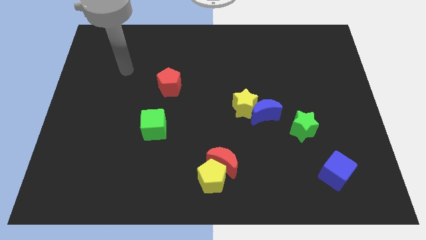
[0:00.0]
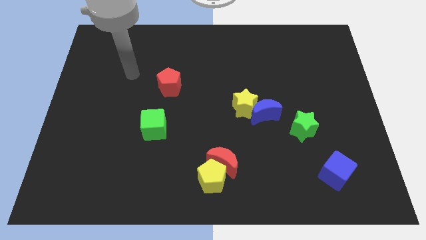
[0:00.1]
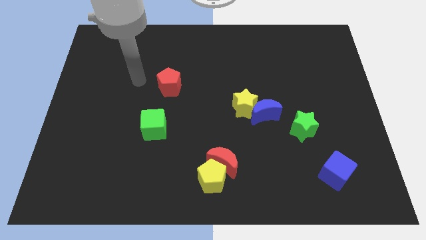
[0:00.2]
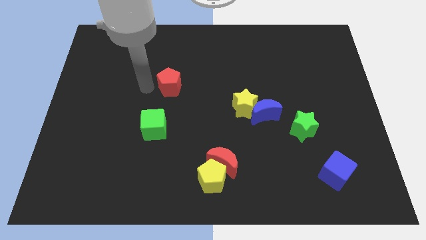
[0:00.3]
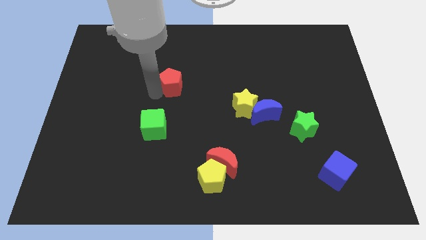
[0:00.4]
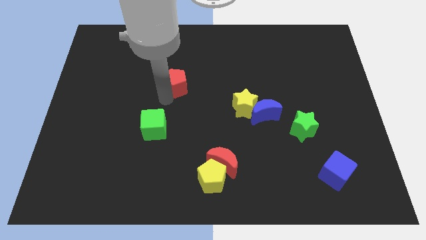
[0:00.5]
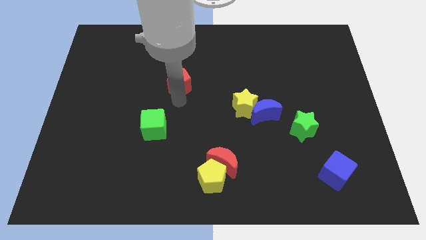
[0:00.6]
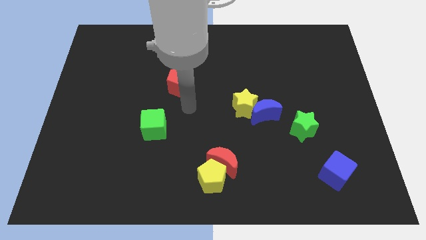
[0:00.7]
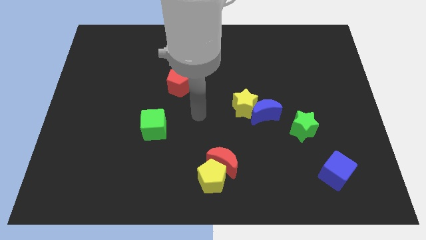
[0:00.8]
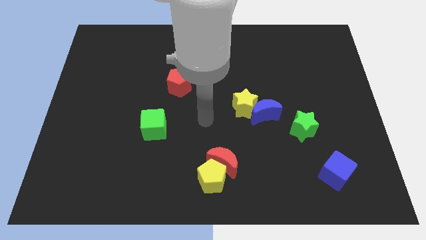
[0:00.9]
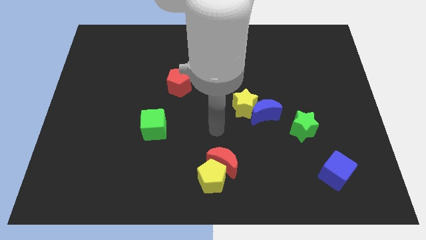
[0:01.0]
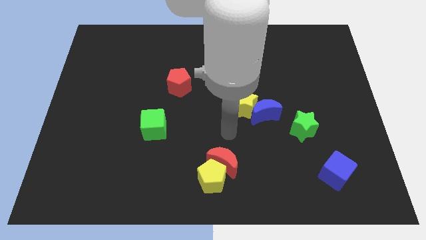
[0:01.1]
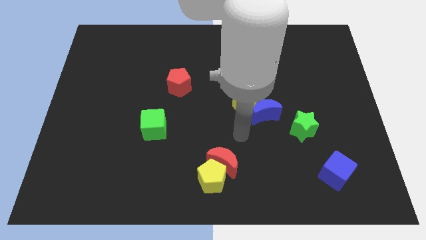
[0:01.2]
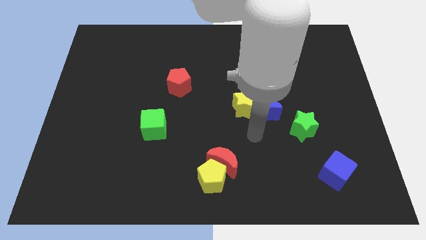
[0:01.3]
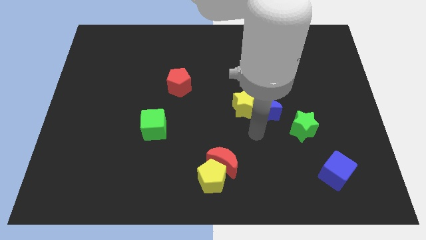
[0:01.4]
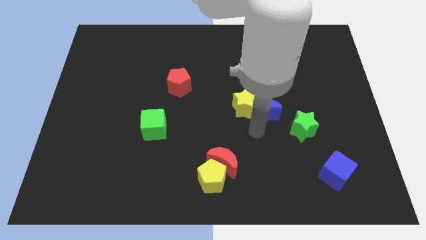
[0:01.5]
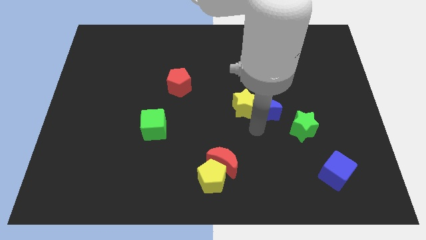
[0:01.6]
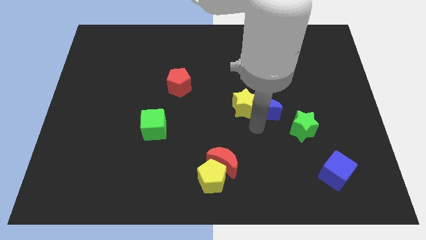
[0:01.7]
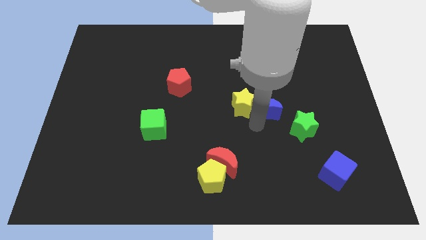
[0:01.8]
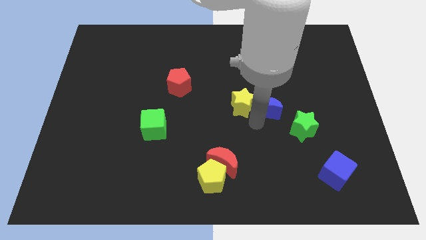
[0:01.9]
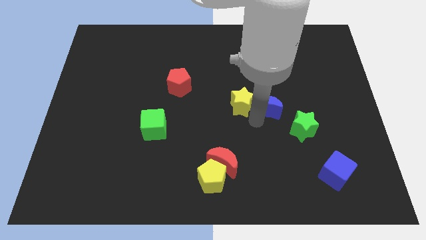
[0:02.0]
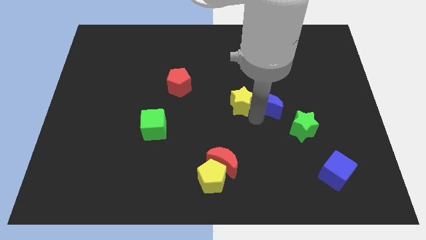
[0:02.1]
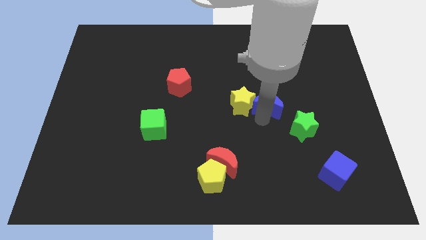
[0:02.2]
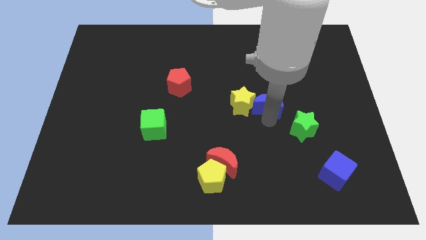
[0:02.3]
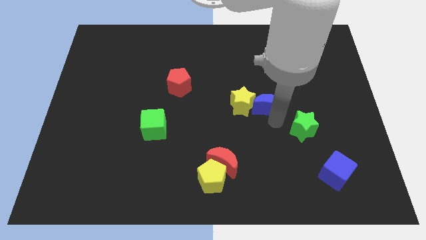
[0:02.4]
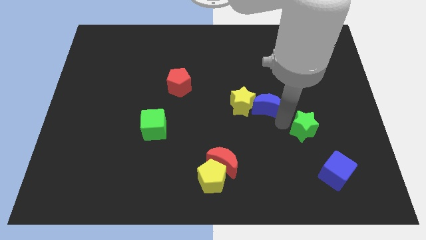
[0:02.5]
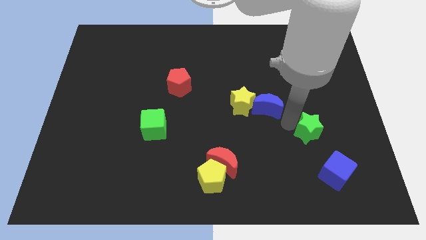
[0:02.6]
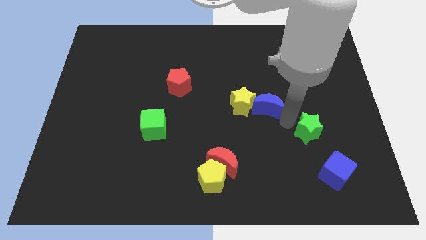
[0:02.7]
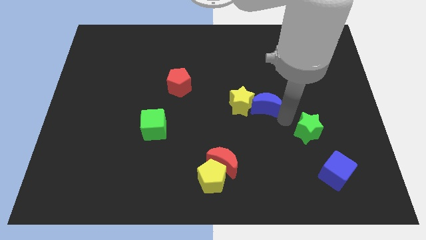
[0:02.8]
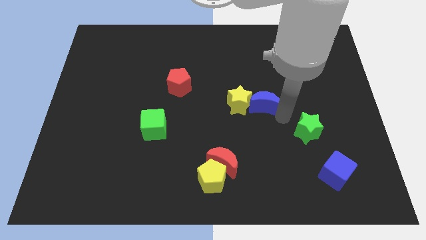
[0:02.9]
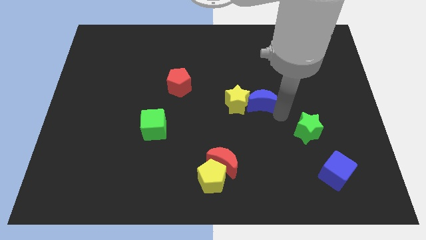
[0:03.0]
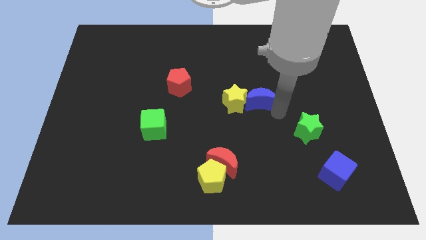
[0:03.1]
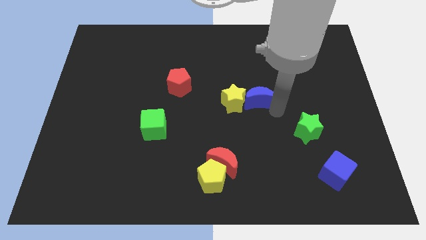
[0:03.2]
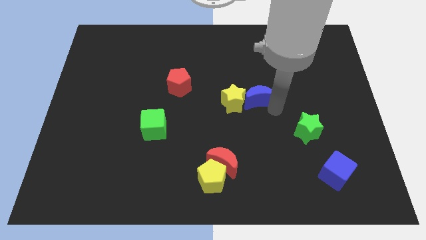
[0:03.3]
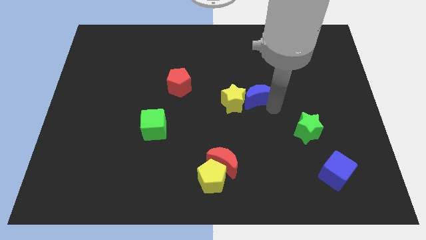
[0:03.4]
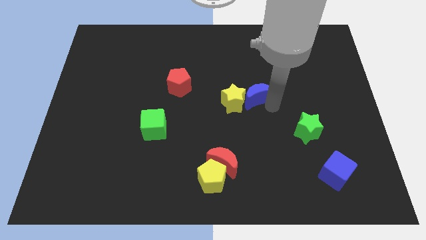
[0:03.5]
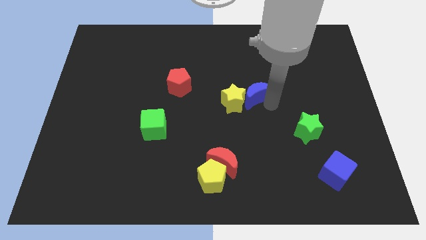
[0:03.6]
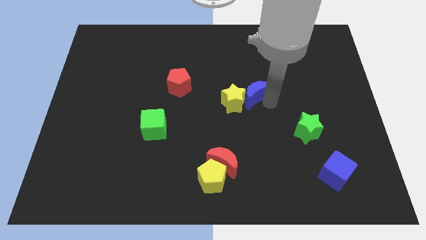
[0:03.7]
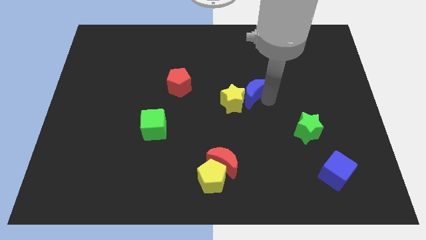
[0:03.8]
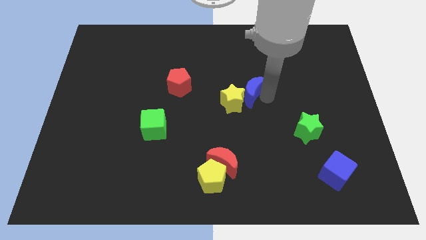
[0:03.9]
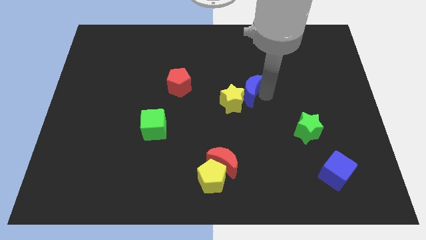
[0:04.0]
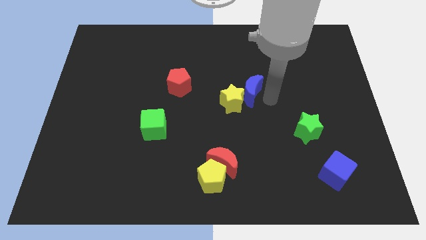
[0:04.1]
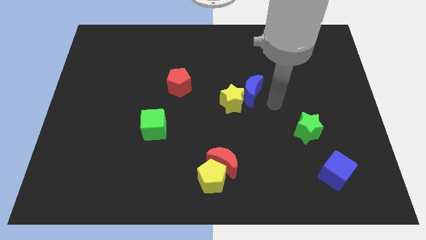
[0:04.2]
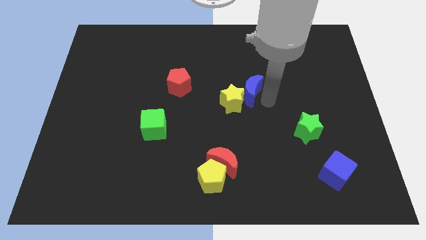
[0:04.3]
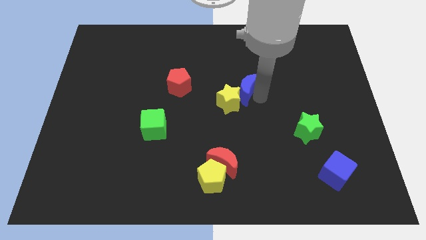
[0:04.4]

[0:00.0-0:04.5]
move the blue moon a bit upwards and then left

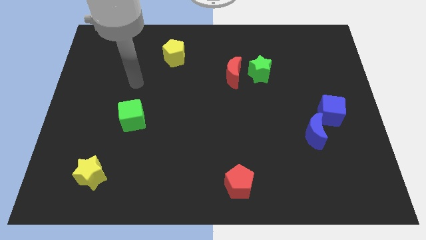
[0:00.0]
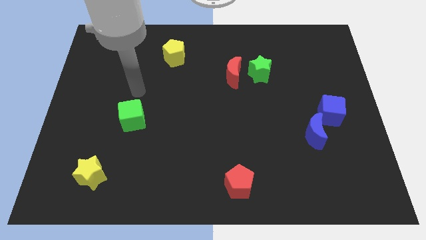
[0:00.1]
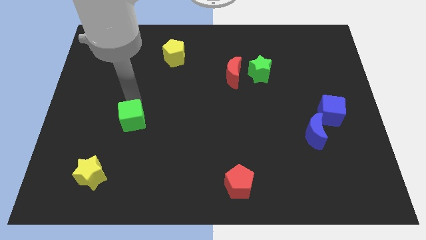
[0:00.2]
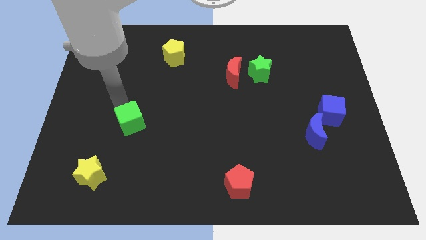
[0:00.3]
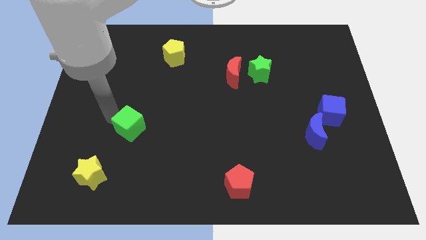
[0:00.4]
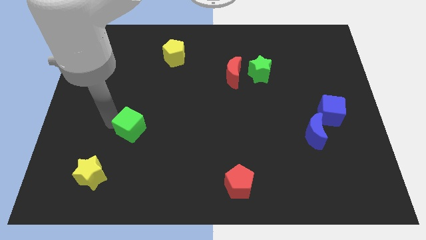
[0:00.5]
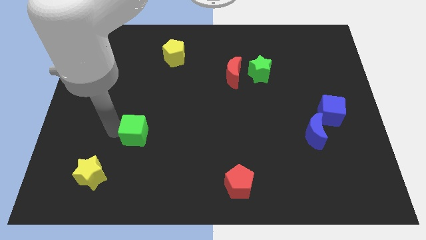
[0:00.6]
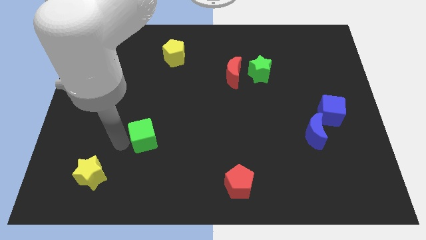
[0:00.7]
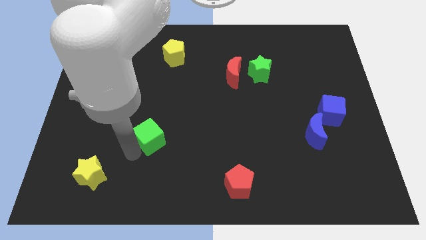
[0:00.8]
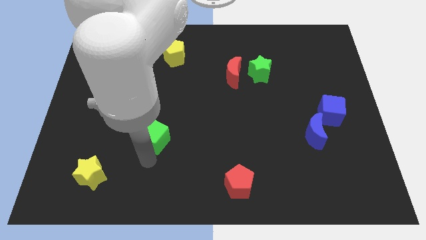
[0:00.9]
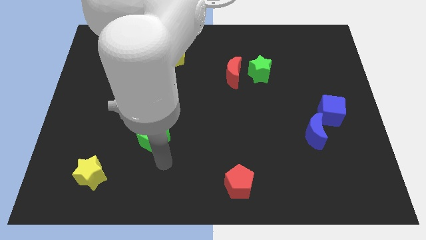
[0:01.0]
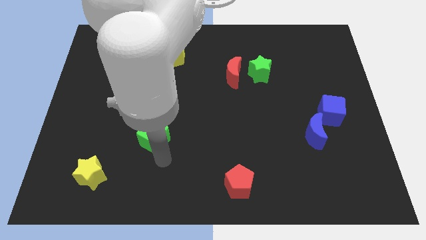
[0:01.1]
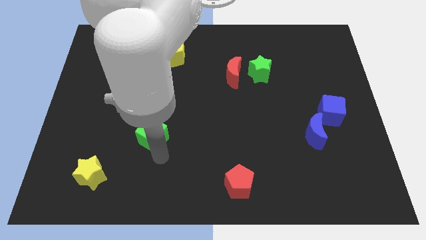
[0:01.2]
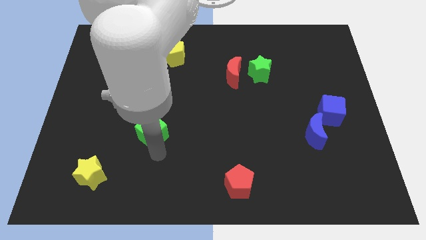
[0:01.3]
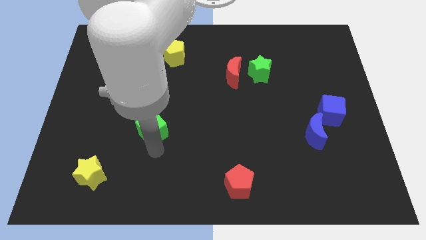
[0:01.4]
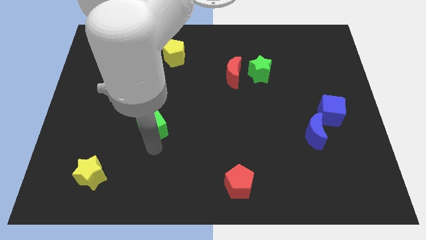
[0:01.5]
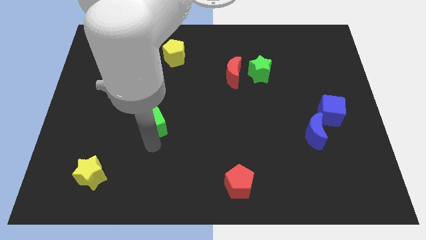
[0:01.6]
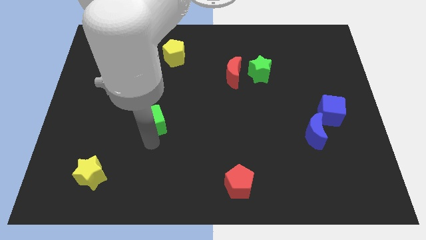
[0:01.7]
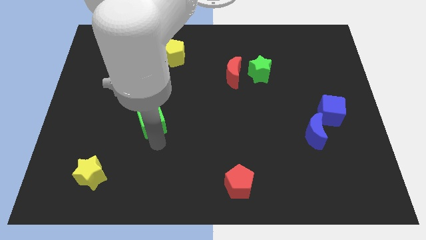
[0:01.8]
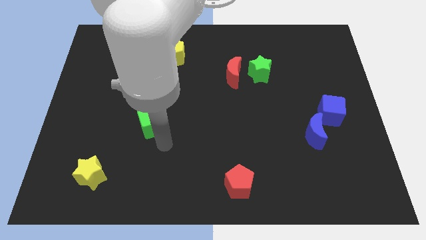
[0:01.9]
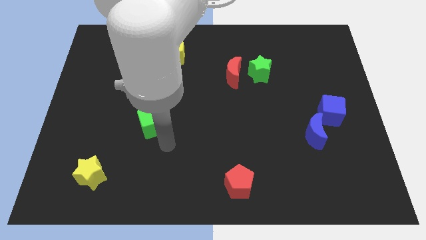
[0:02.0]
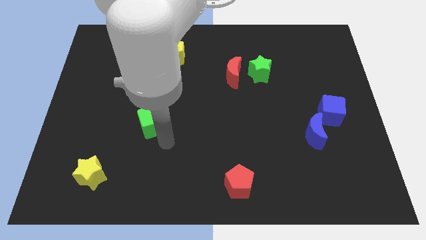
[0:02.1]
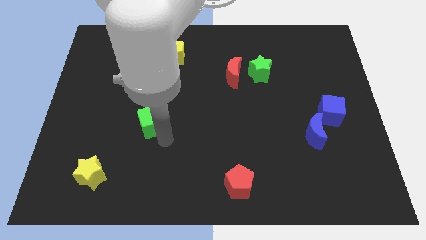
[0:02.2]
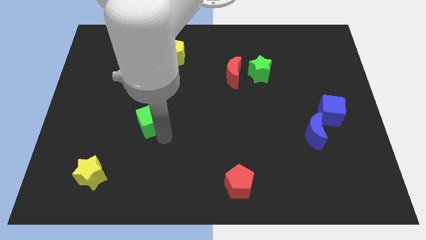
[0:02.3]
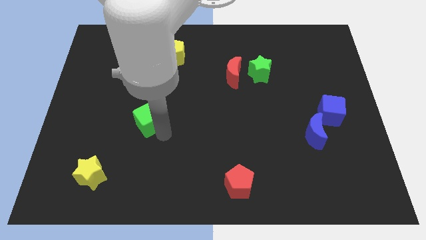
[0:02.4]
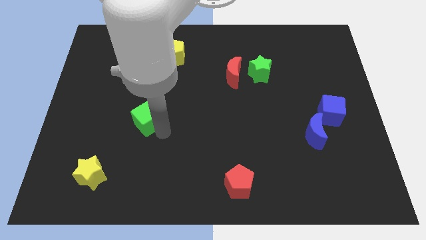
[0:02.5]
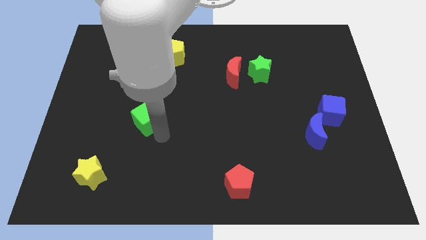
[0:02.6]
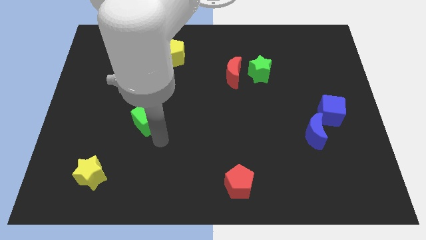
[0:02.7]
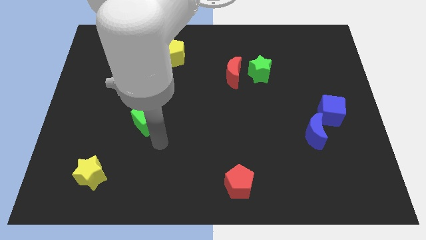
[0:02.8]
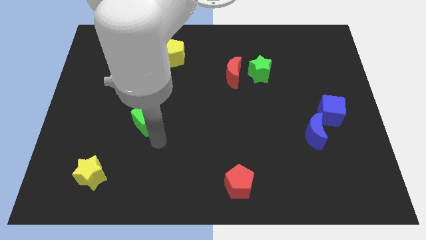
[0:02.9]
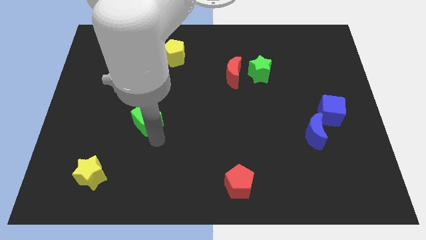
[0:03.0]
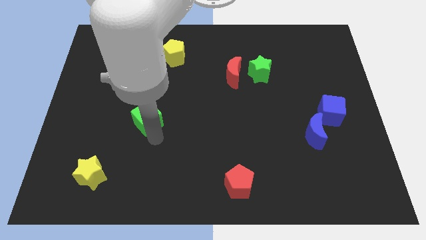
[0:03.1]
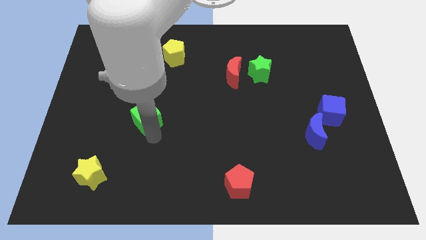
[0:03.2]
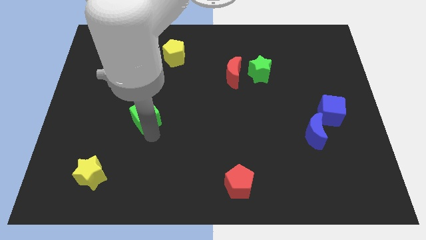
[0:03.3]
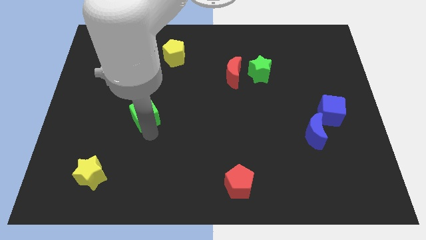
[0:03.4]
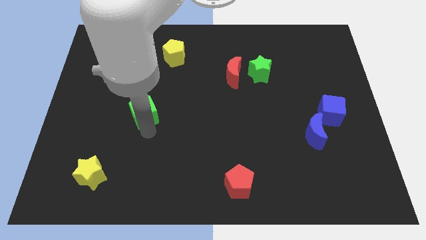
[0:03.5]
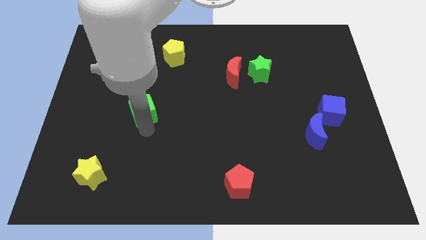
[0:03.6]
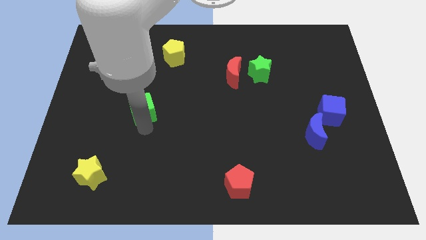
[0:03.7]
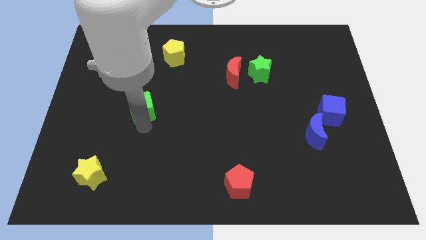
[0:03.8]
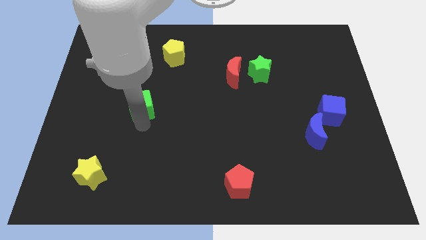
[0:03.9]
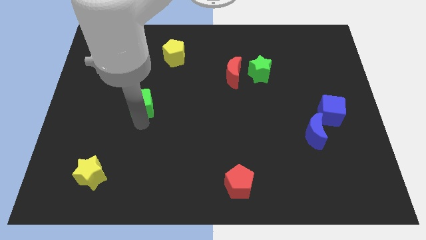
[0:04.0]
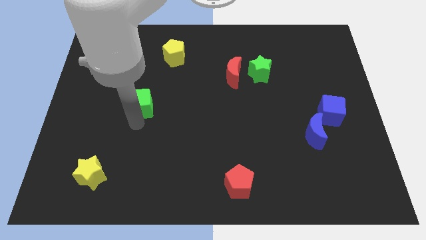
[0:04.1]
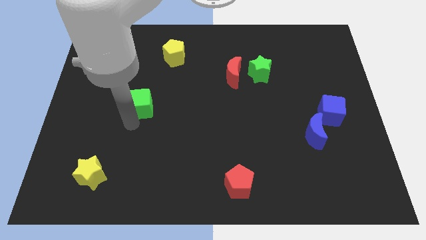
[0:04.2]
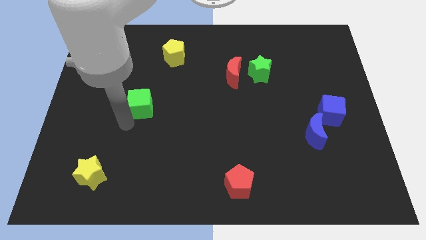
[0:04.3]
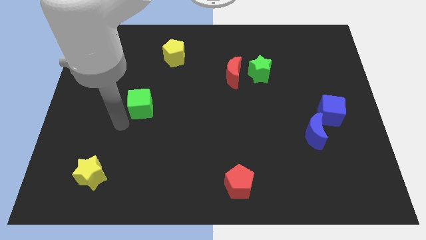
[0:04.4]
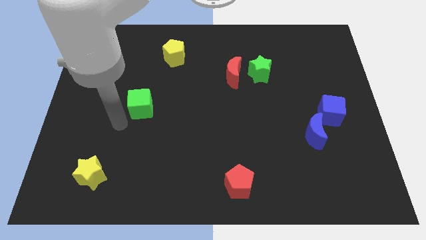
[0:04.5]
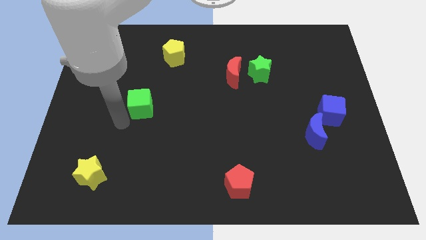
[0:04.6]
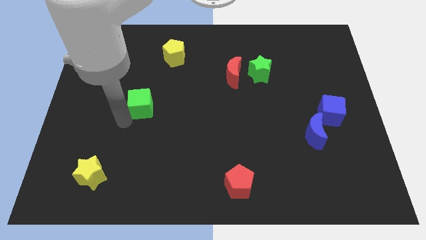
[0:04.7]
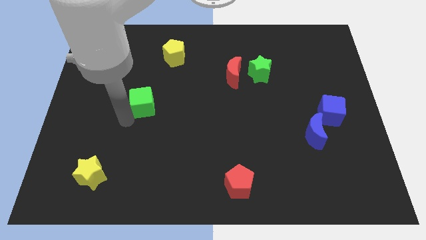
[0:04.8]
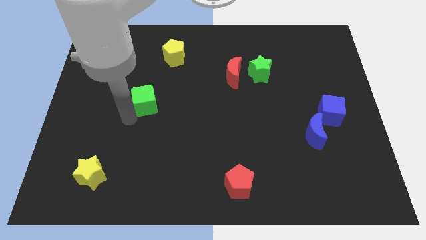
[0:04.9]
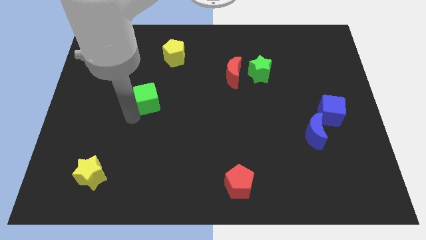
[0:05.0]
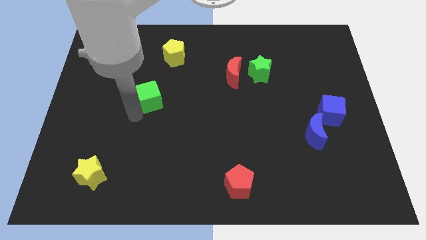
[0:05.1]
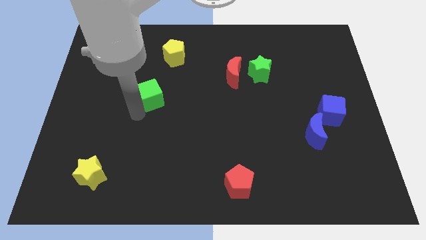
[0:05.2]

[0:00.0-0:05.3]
move the green cube upwards and to the right diagonally a little
